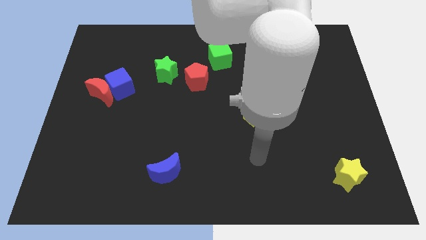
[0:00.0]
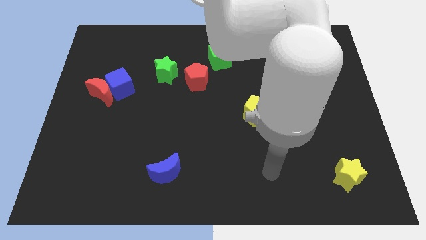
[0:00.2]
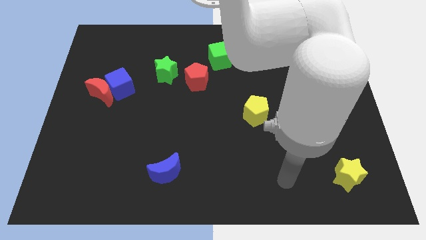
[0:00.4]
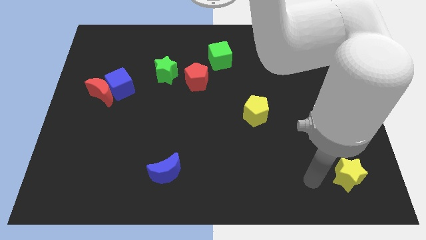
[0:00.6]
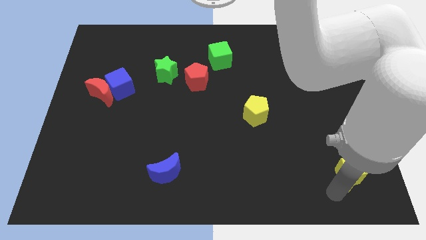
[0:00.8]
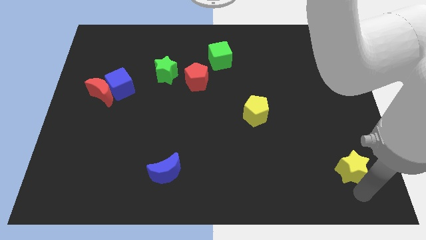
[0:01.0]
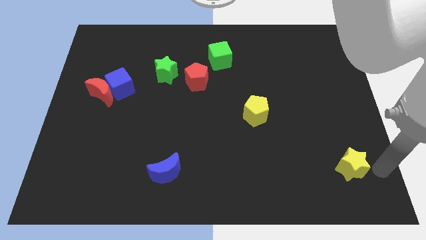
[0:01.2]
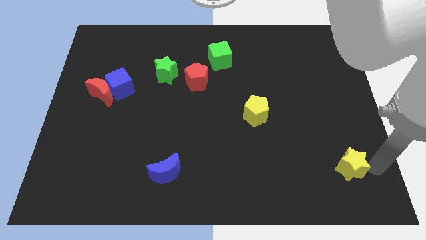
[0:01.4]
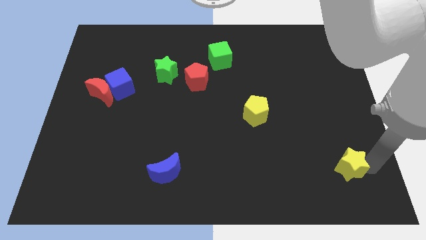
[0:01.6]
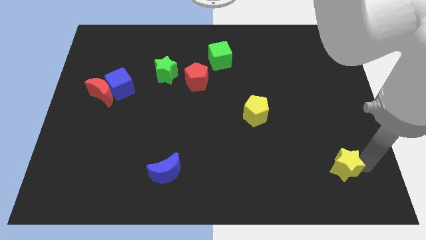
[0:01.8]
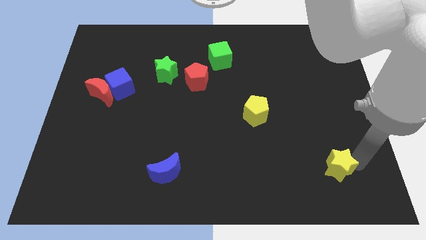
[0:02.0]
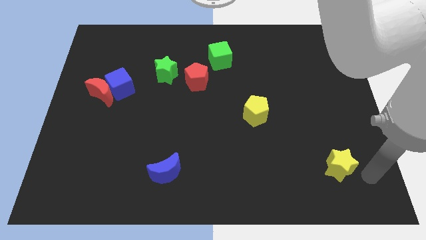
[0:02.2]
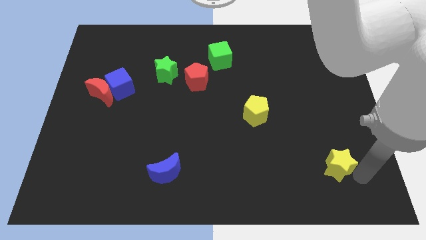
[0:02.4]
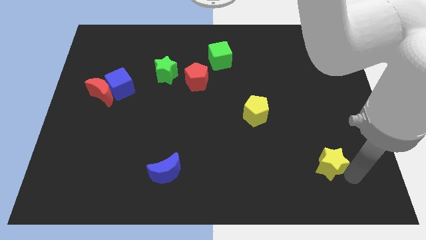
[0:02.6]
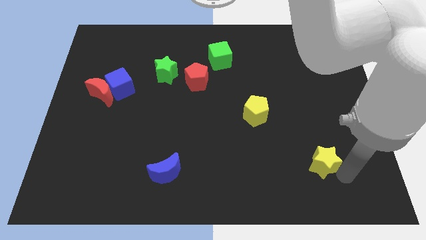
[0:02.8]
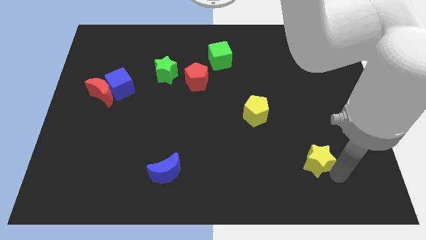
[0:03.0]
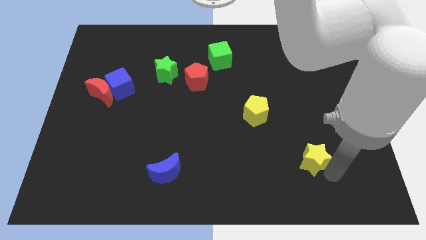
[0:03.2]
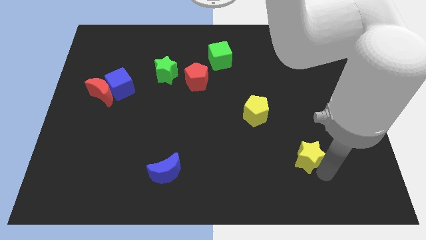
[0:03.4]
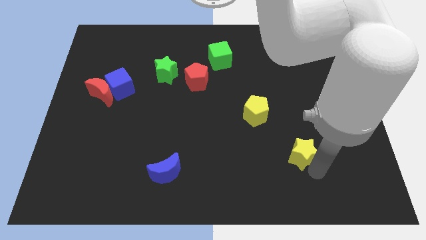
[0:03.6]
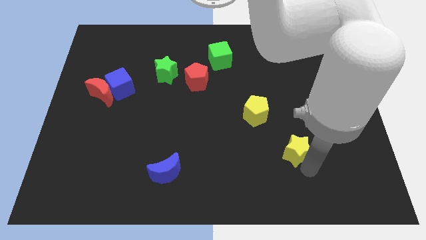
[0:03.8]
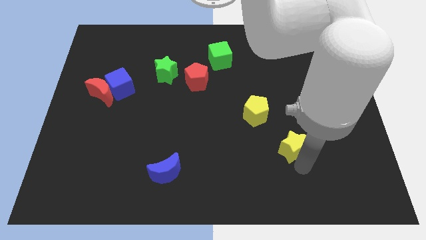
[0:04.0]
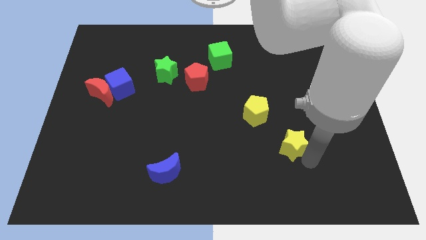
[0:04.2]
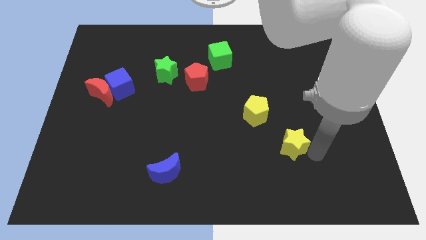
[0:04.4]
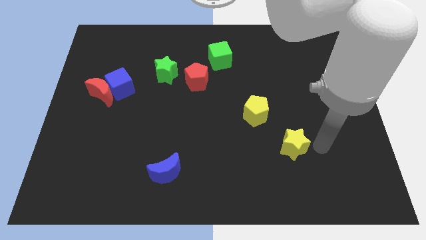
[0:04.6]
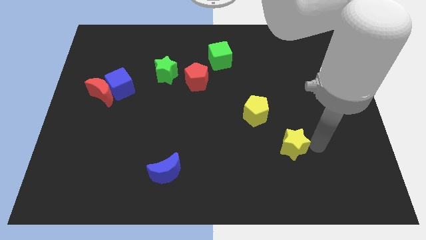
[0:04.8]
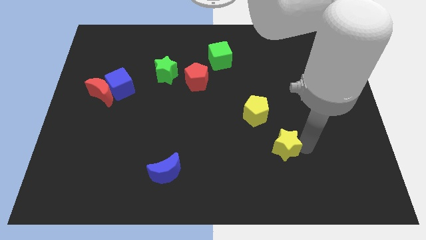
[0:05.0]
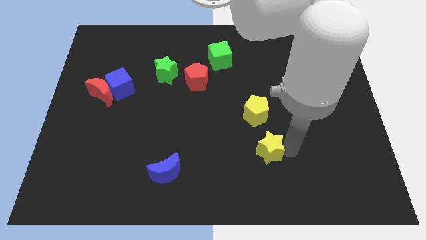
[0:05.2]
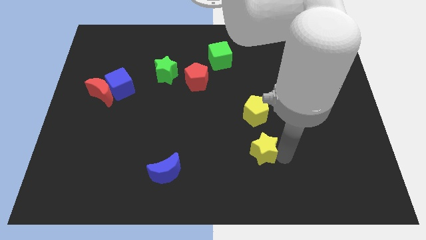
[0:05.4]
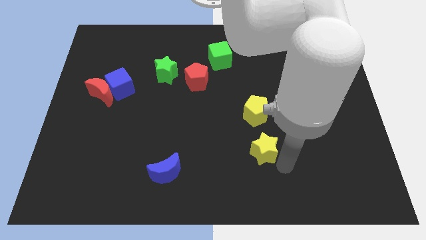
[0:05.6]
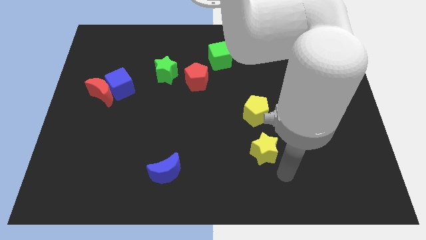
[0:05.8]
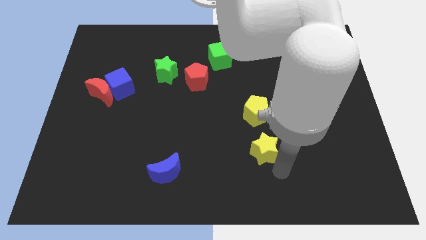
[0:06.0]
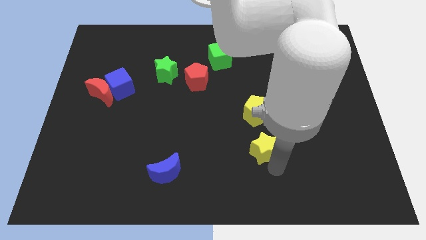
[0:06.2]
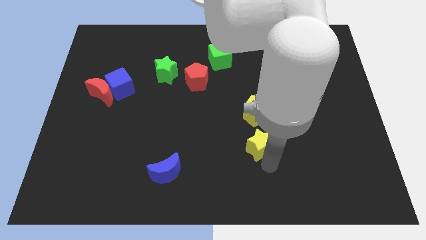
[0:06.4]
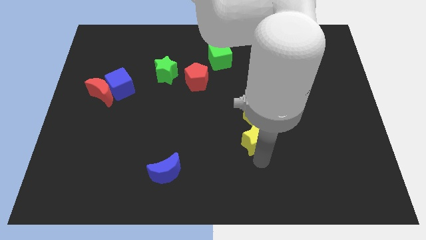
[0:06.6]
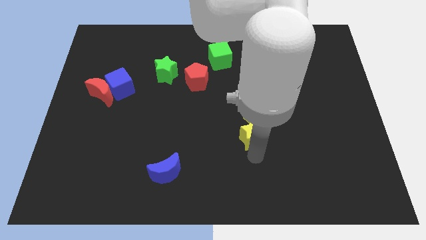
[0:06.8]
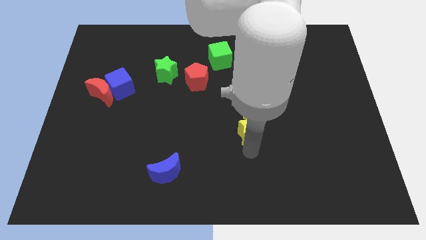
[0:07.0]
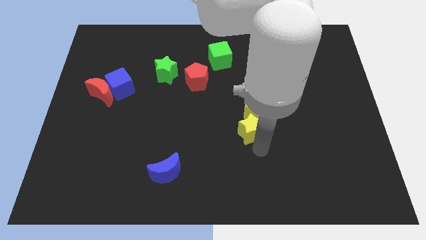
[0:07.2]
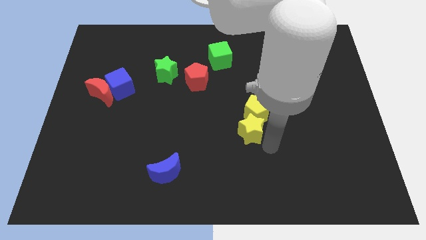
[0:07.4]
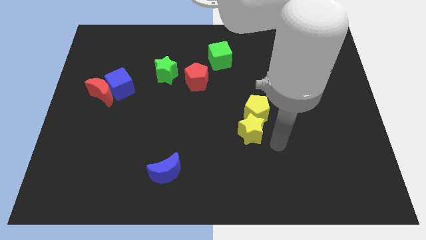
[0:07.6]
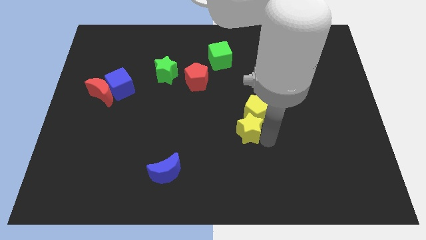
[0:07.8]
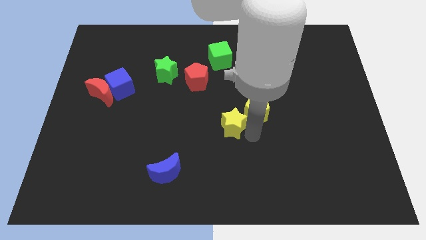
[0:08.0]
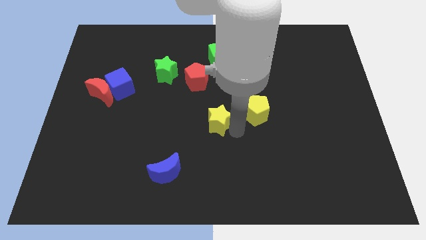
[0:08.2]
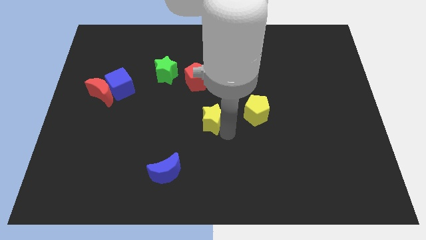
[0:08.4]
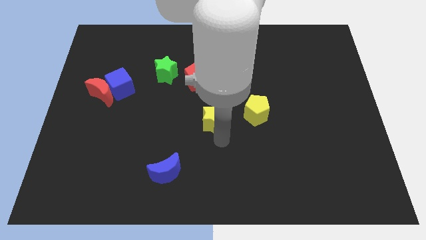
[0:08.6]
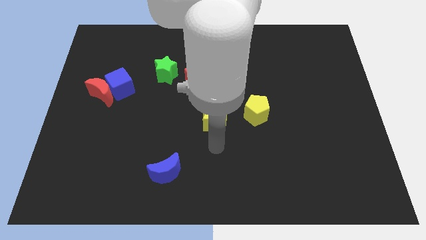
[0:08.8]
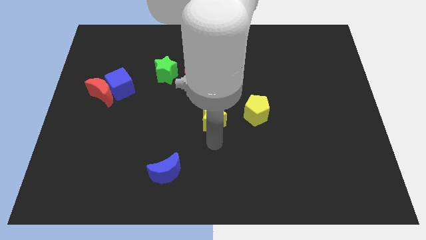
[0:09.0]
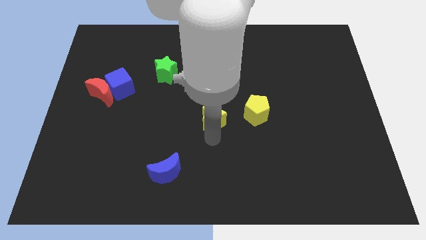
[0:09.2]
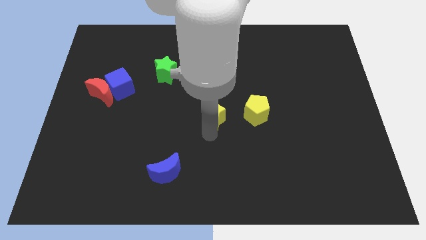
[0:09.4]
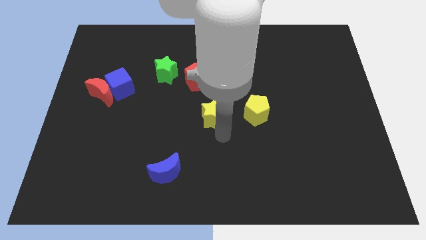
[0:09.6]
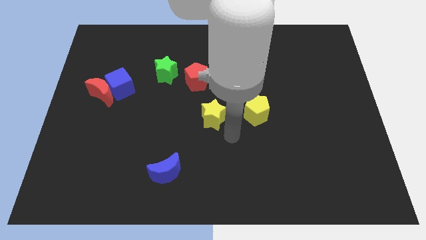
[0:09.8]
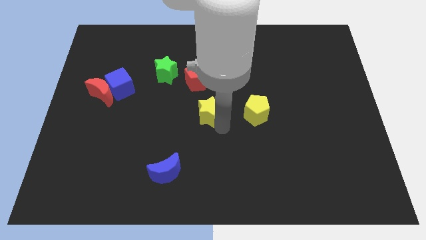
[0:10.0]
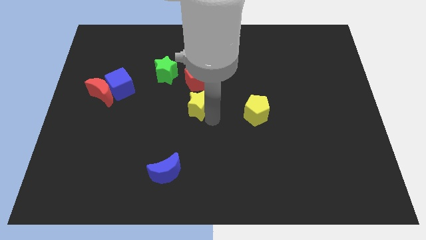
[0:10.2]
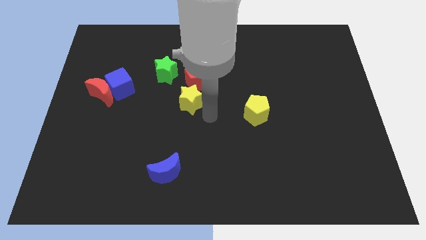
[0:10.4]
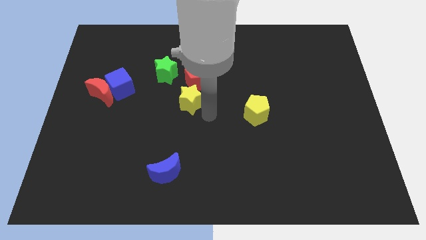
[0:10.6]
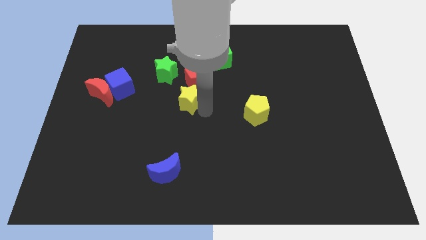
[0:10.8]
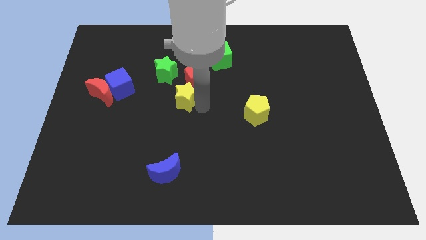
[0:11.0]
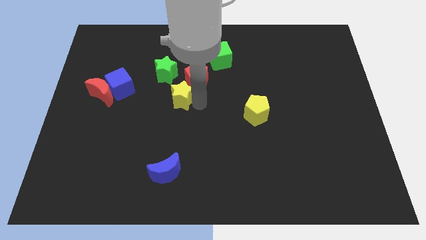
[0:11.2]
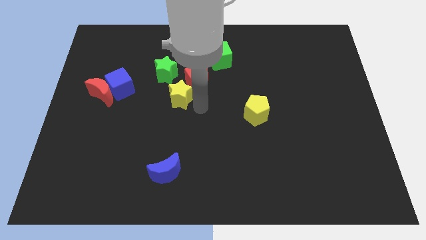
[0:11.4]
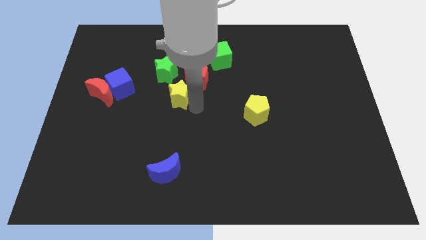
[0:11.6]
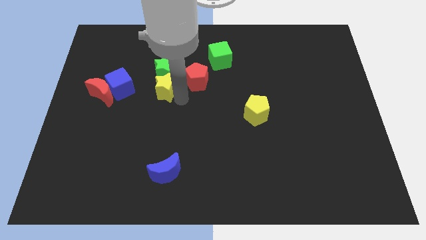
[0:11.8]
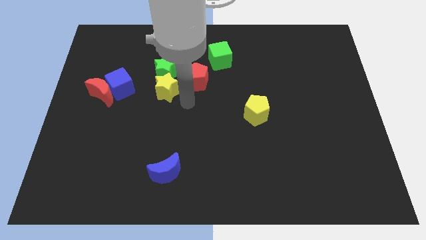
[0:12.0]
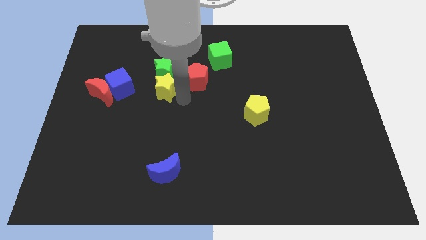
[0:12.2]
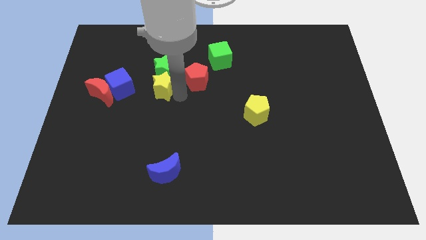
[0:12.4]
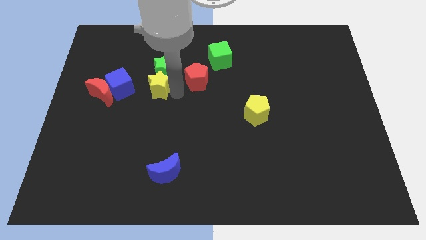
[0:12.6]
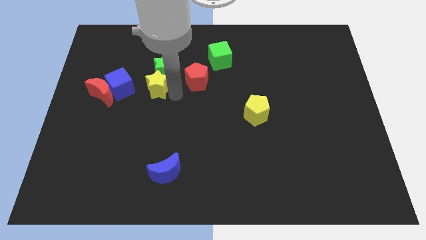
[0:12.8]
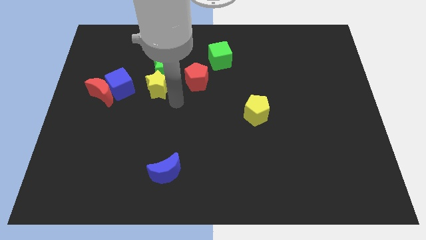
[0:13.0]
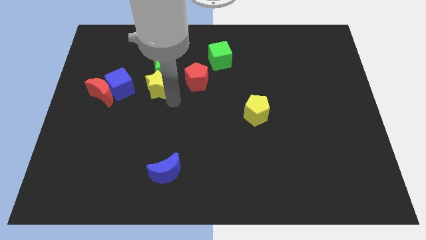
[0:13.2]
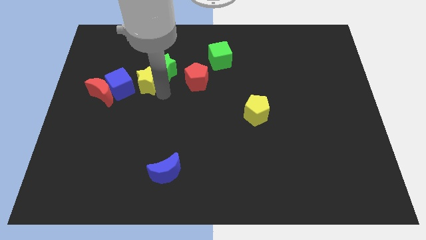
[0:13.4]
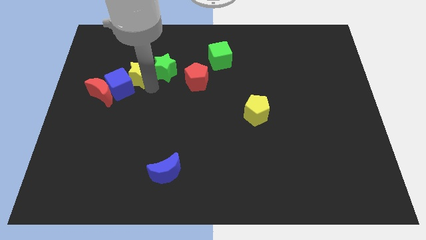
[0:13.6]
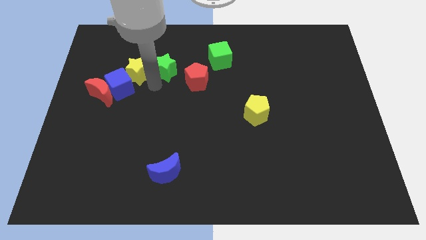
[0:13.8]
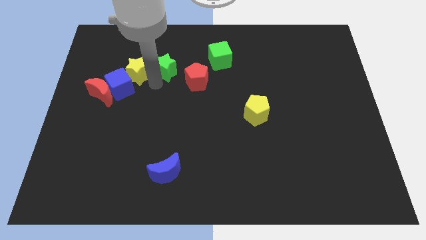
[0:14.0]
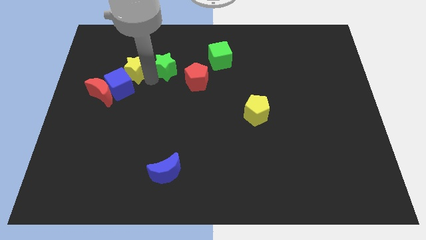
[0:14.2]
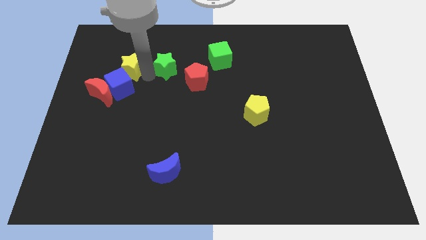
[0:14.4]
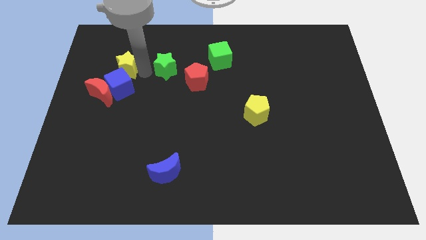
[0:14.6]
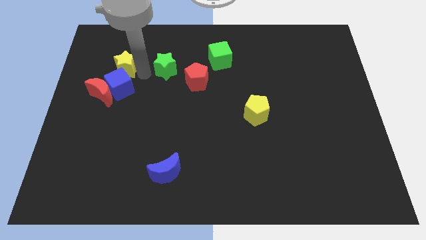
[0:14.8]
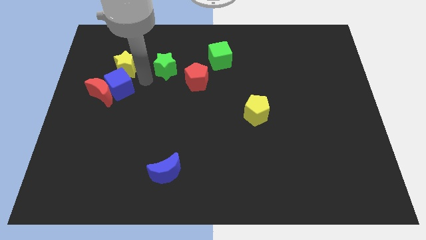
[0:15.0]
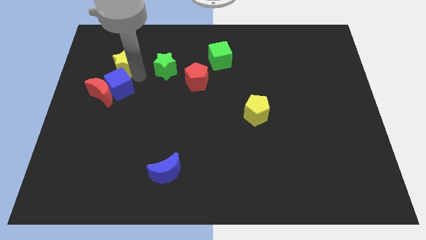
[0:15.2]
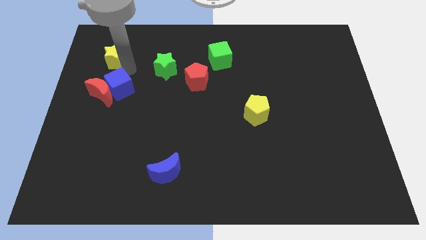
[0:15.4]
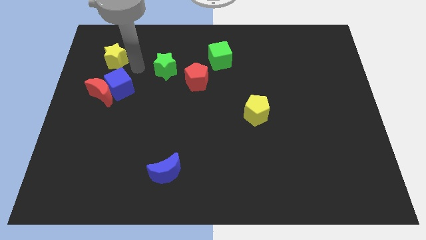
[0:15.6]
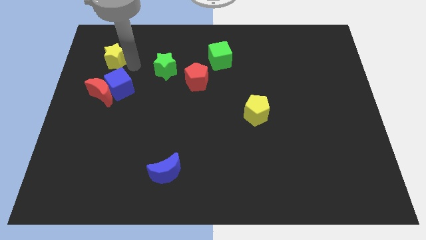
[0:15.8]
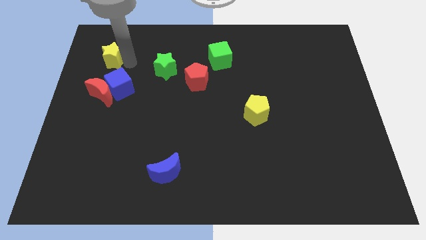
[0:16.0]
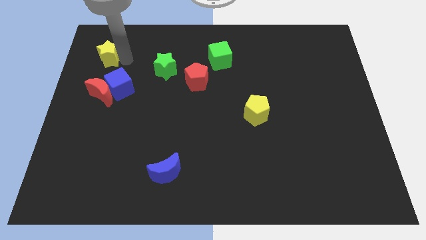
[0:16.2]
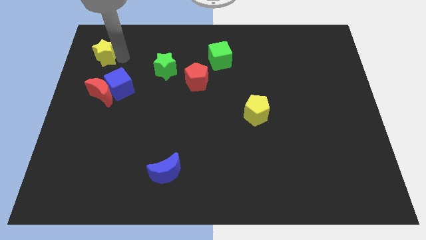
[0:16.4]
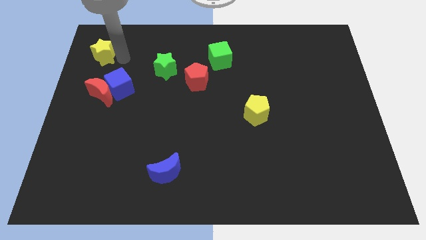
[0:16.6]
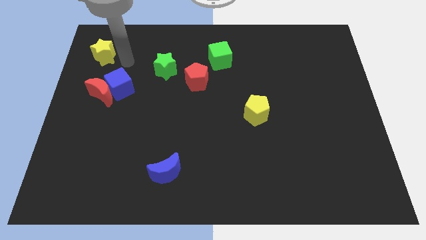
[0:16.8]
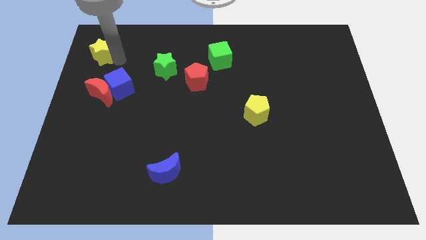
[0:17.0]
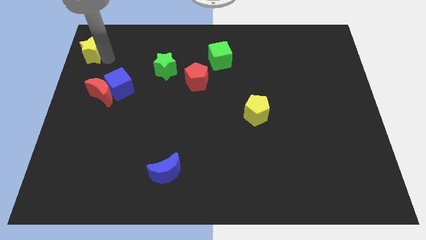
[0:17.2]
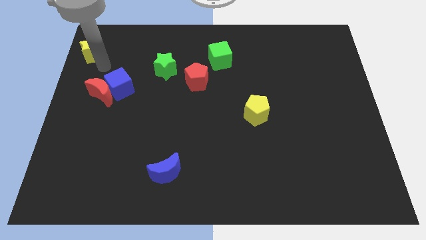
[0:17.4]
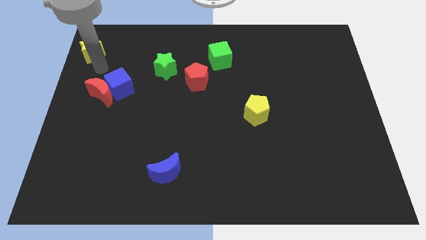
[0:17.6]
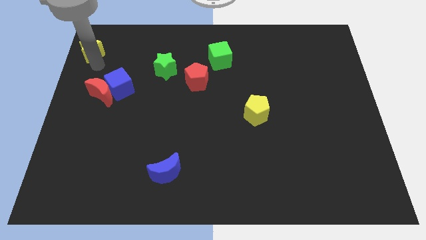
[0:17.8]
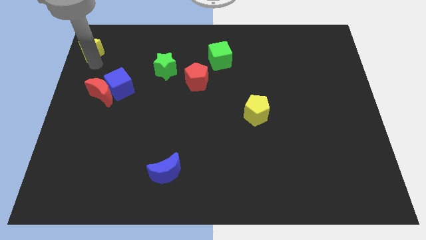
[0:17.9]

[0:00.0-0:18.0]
push the yellow star to the top left
